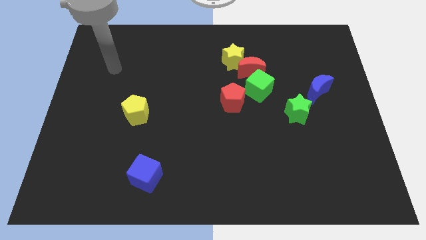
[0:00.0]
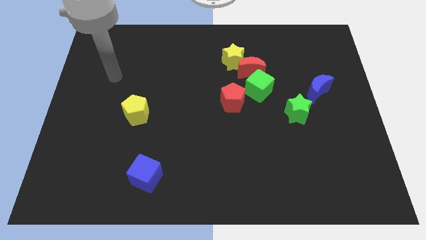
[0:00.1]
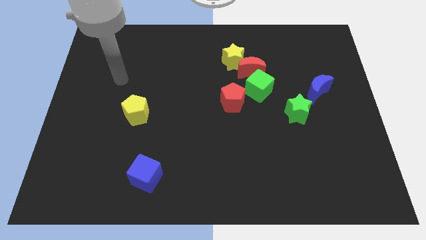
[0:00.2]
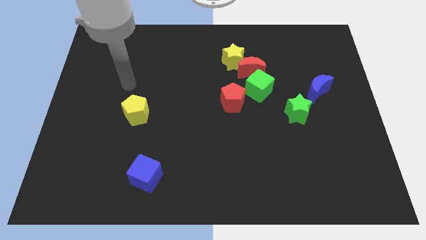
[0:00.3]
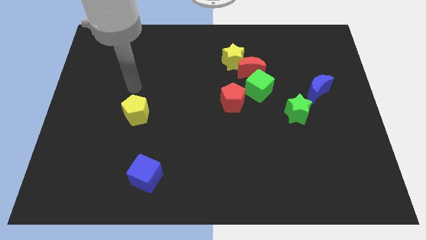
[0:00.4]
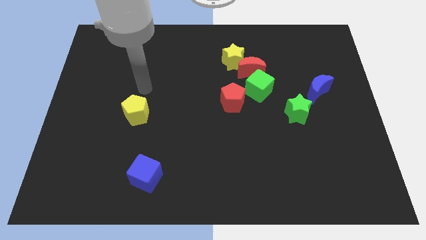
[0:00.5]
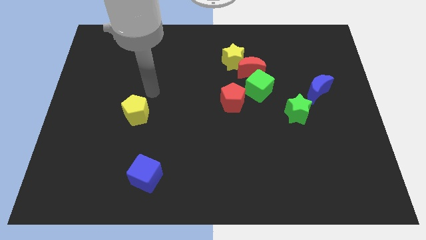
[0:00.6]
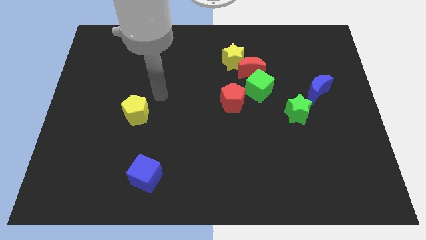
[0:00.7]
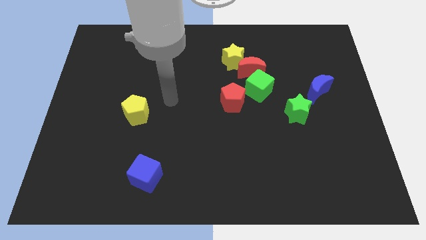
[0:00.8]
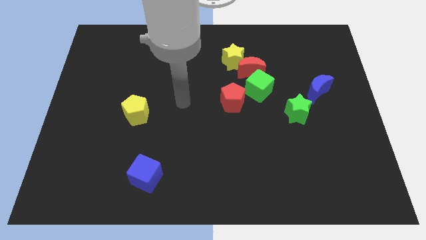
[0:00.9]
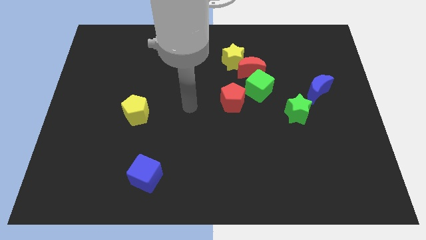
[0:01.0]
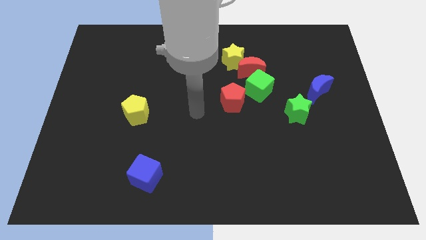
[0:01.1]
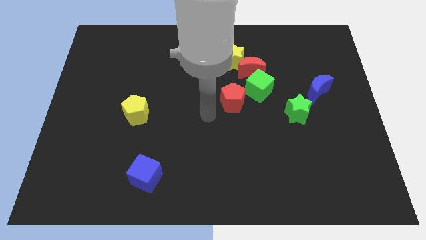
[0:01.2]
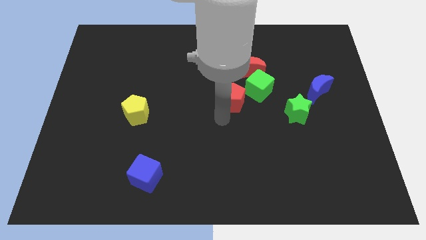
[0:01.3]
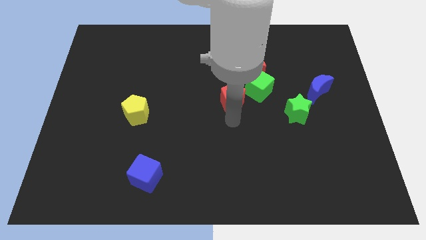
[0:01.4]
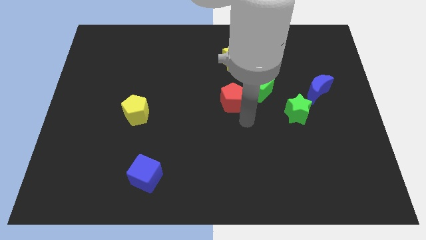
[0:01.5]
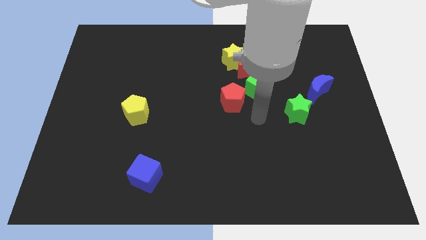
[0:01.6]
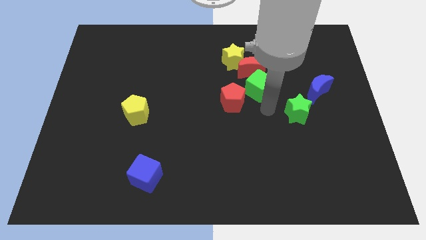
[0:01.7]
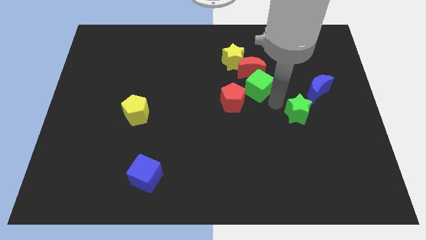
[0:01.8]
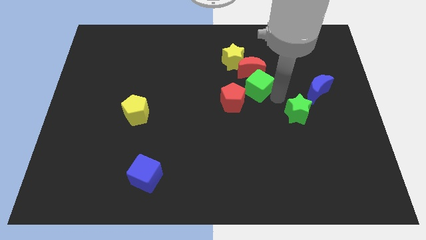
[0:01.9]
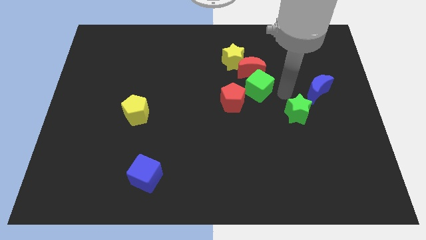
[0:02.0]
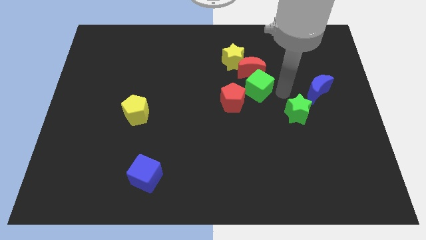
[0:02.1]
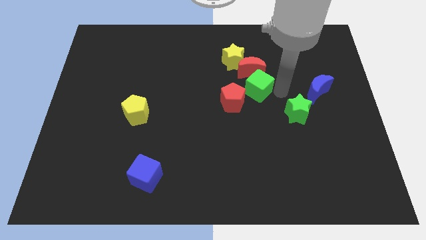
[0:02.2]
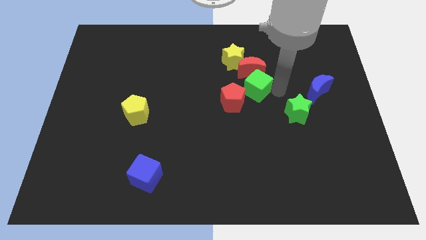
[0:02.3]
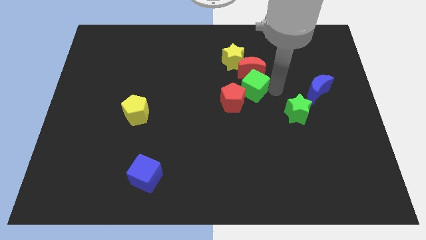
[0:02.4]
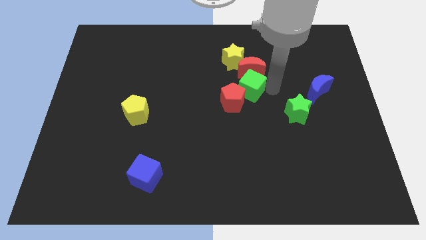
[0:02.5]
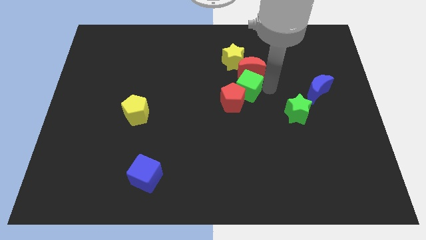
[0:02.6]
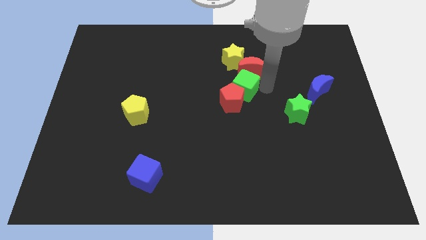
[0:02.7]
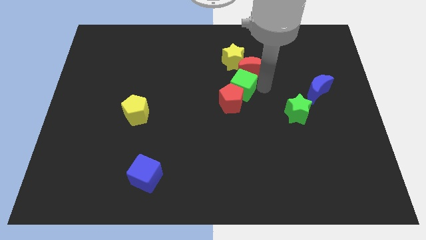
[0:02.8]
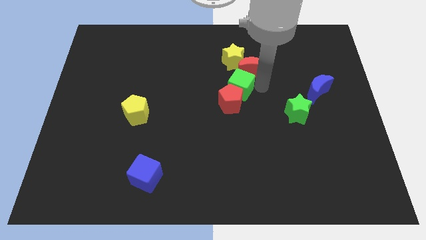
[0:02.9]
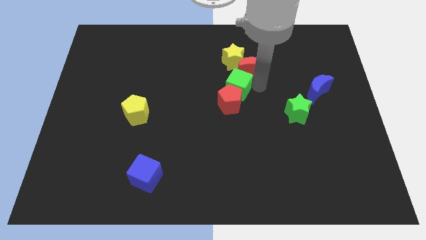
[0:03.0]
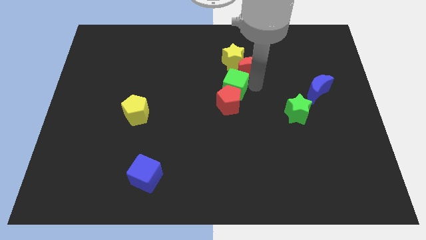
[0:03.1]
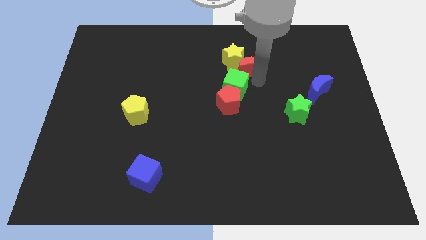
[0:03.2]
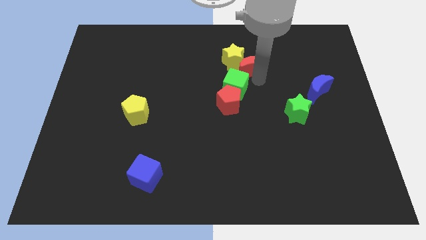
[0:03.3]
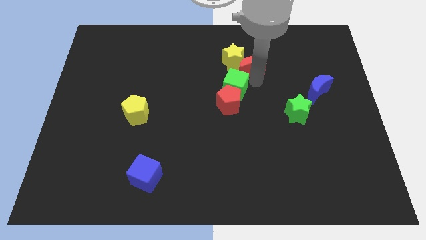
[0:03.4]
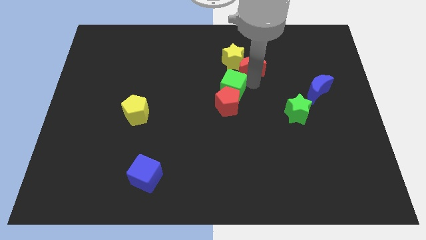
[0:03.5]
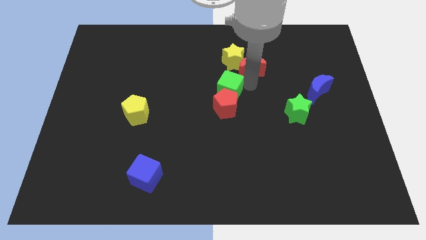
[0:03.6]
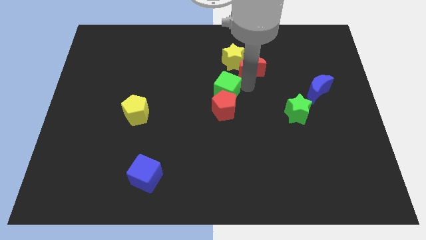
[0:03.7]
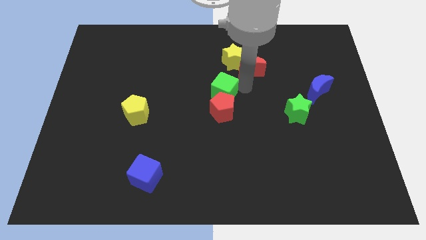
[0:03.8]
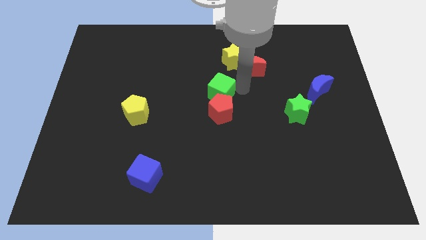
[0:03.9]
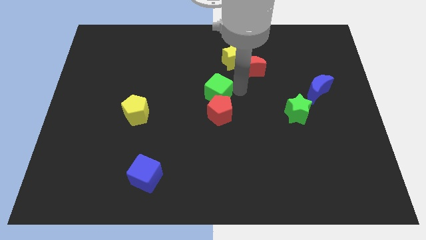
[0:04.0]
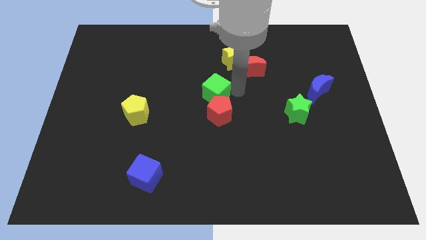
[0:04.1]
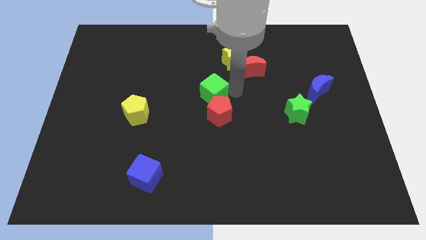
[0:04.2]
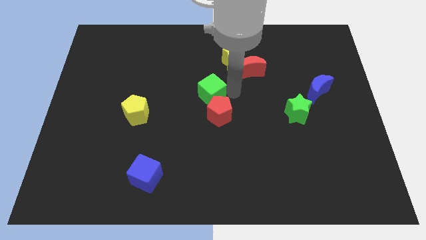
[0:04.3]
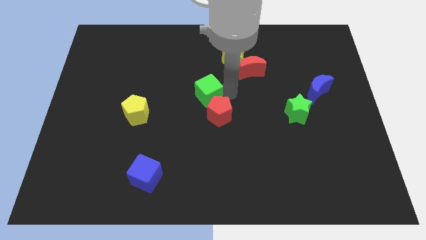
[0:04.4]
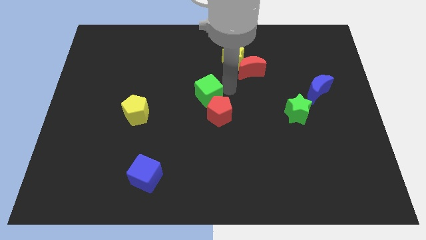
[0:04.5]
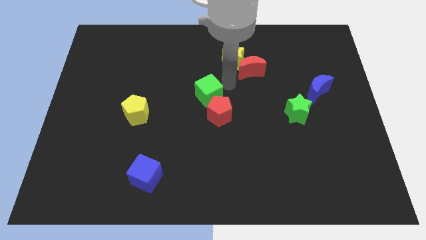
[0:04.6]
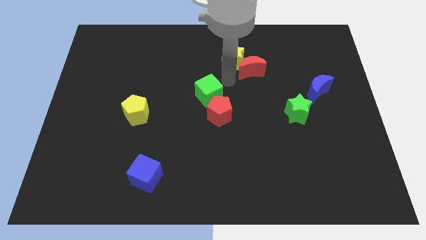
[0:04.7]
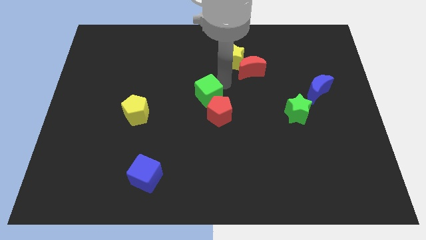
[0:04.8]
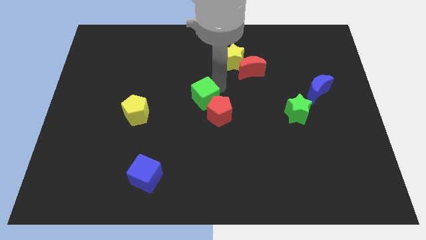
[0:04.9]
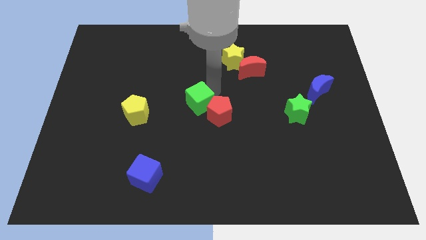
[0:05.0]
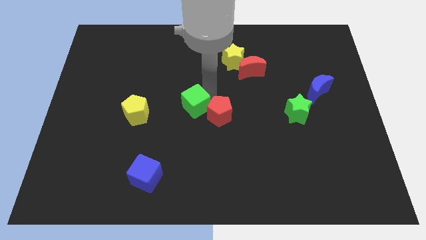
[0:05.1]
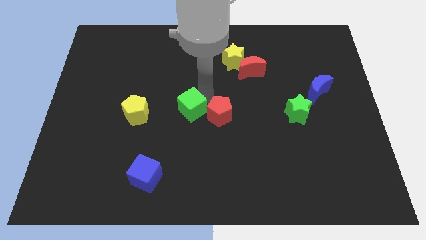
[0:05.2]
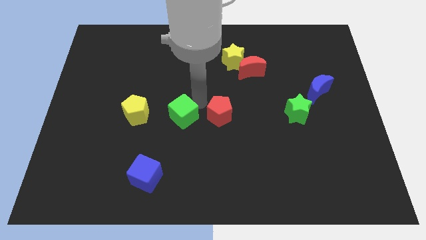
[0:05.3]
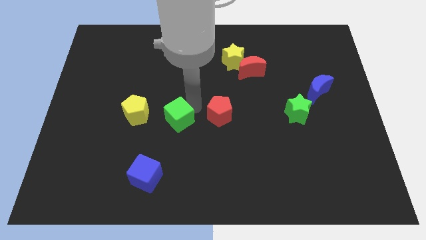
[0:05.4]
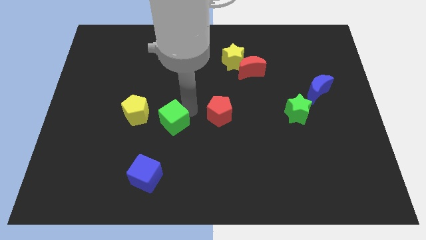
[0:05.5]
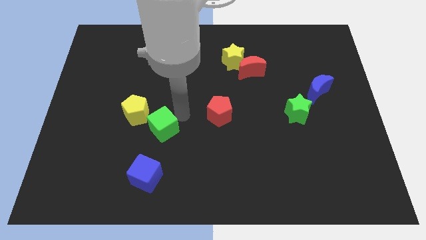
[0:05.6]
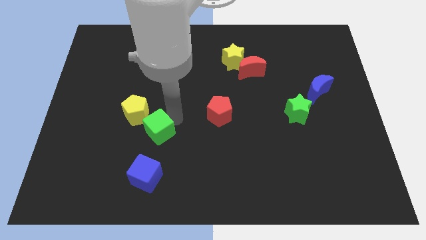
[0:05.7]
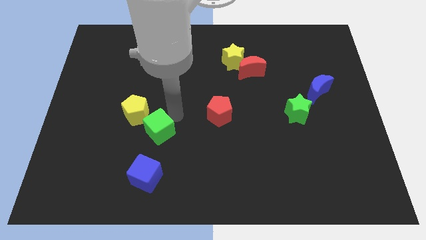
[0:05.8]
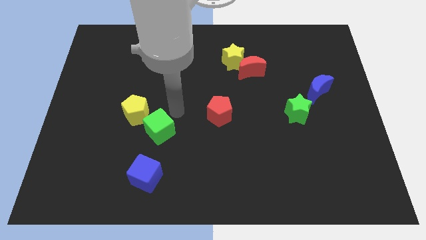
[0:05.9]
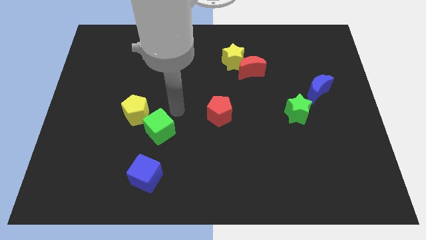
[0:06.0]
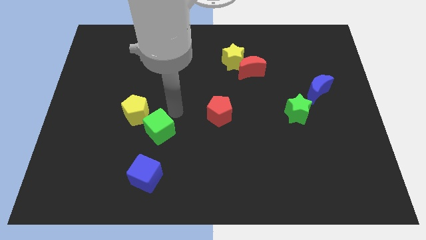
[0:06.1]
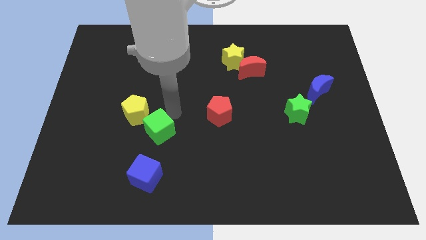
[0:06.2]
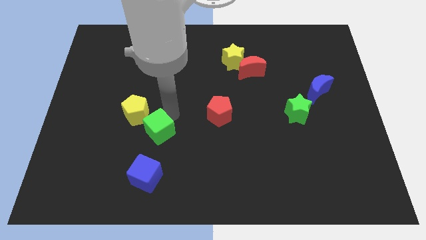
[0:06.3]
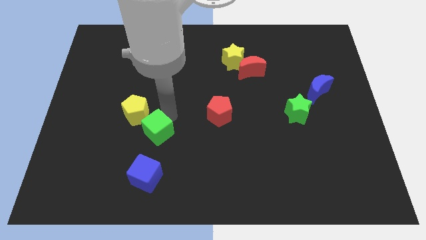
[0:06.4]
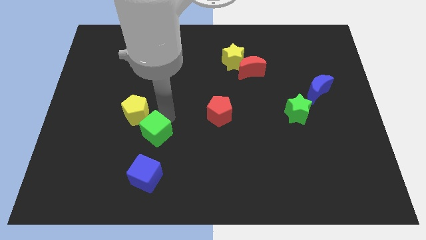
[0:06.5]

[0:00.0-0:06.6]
slide the green cube to the bottom of the yellow pentagon

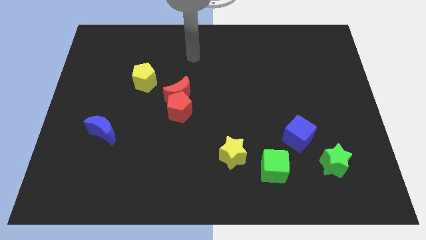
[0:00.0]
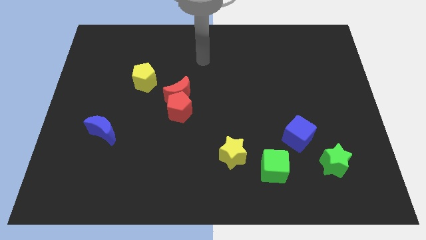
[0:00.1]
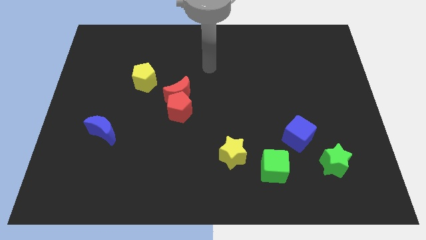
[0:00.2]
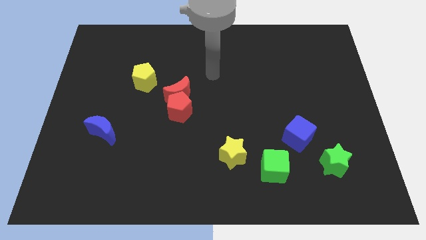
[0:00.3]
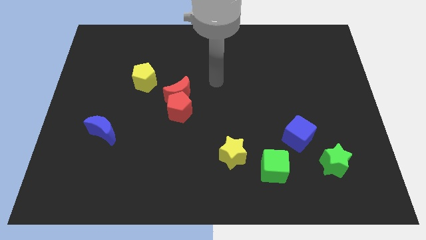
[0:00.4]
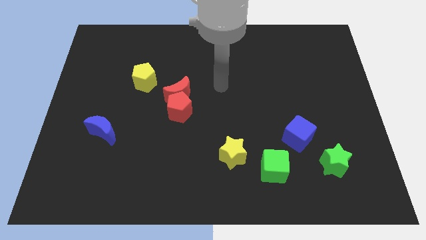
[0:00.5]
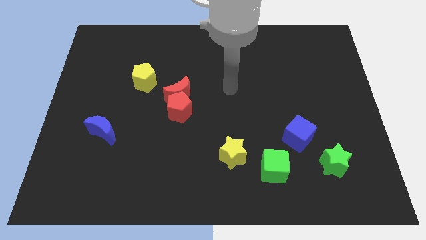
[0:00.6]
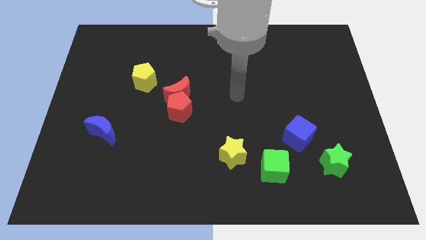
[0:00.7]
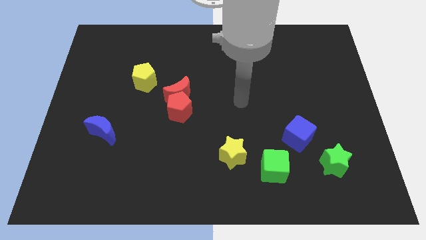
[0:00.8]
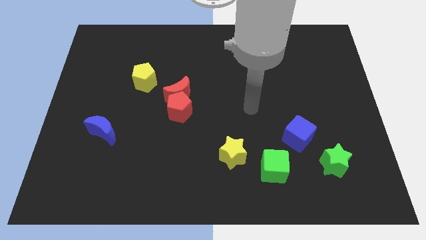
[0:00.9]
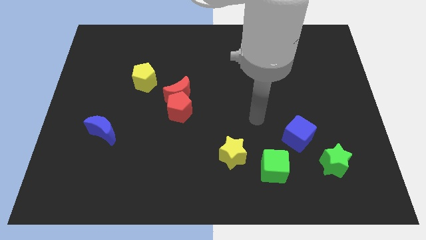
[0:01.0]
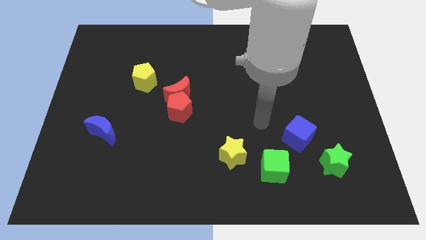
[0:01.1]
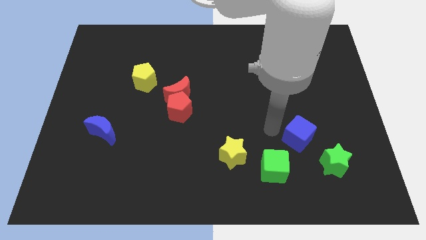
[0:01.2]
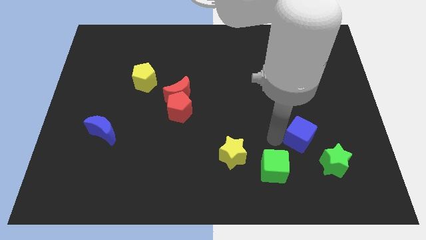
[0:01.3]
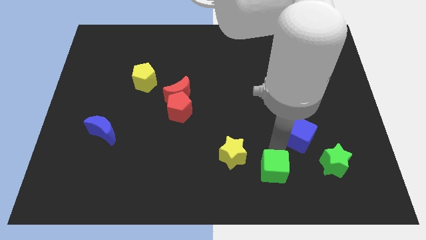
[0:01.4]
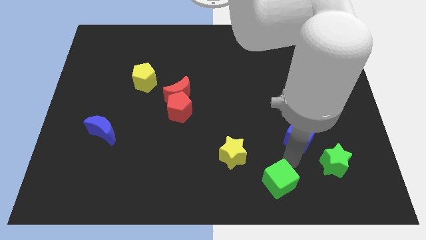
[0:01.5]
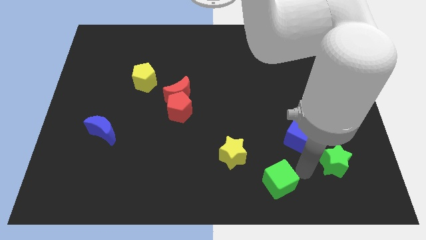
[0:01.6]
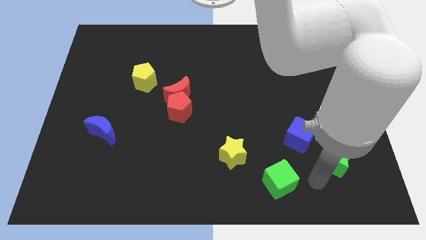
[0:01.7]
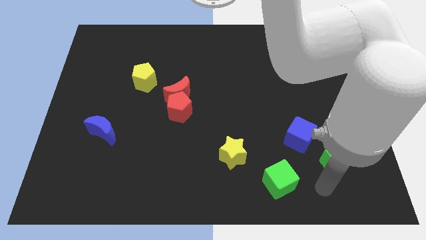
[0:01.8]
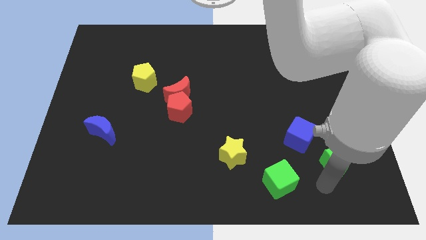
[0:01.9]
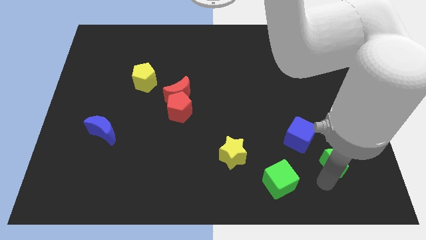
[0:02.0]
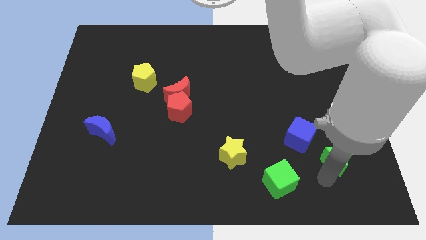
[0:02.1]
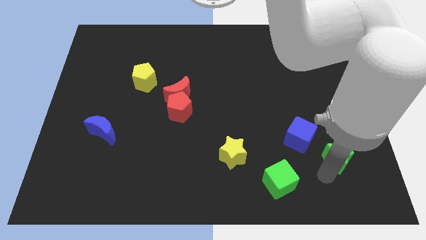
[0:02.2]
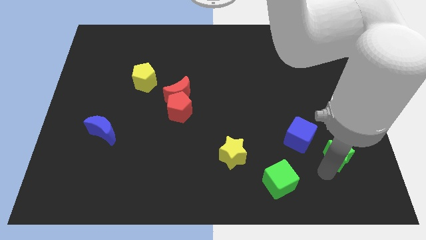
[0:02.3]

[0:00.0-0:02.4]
push the green star to the right side of the blue cube
